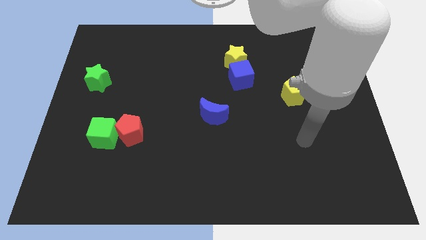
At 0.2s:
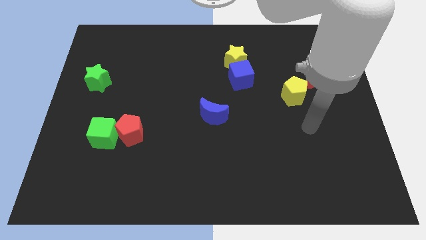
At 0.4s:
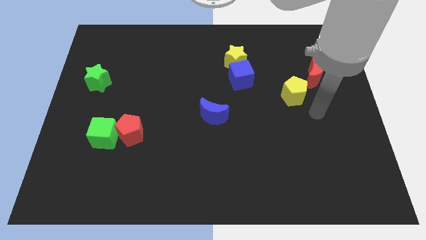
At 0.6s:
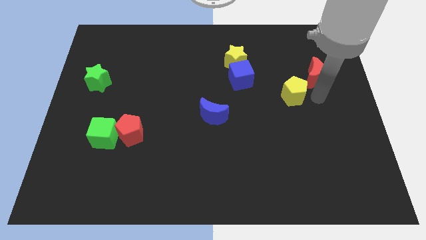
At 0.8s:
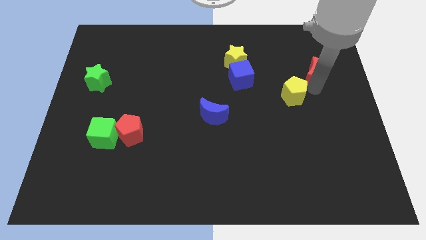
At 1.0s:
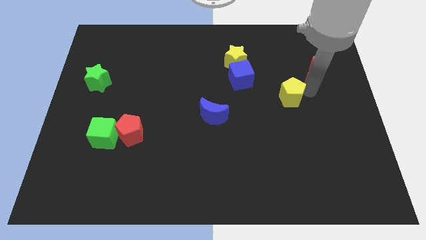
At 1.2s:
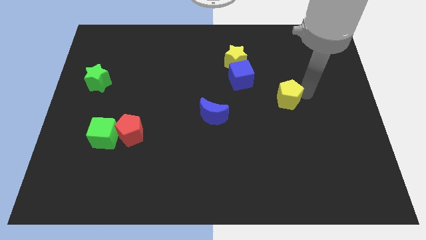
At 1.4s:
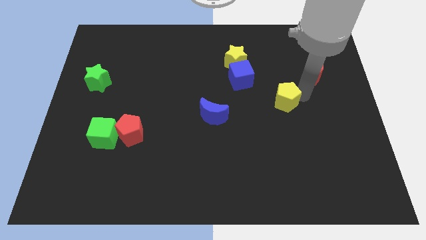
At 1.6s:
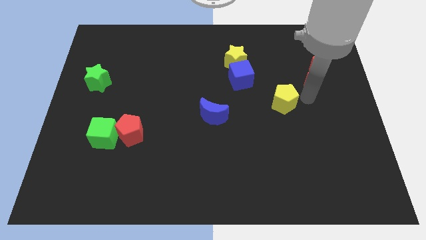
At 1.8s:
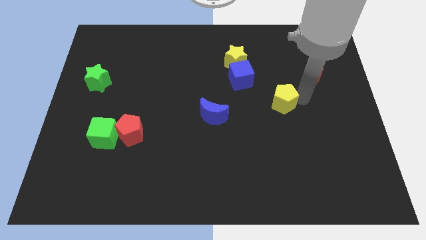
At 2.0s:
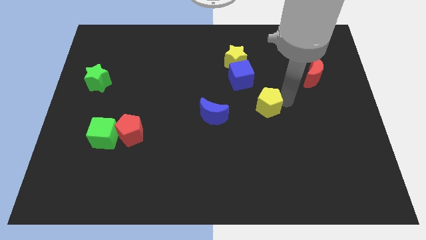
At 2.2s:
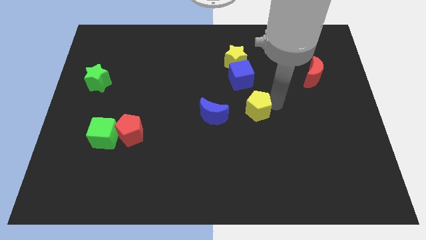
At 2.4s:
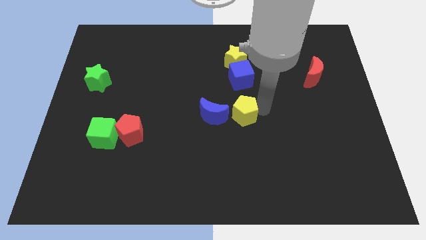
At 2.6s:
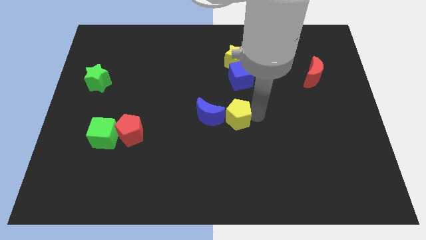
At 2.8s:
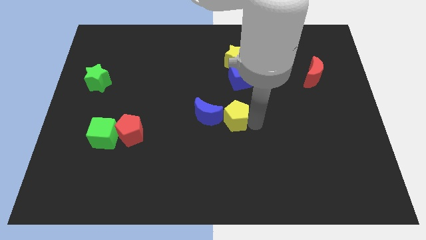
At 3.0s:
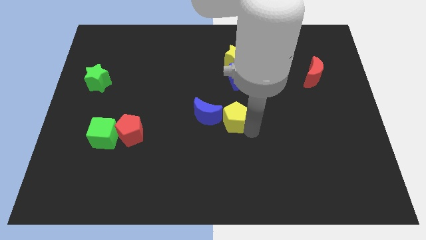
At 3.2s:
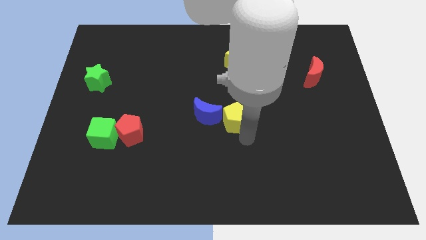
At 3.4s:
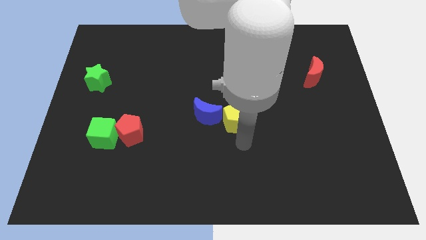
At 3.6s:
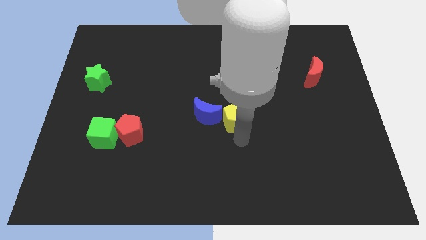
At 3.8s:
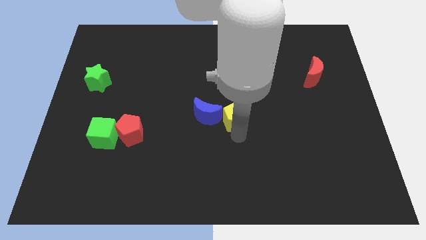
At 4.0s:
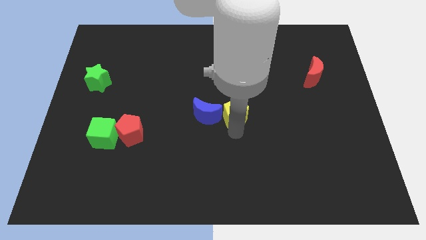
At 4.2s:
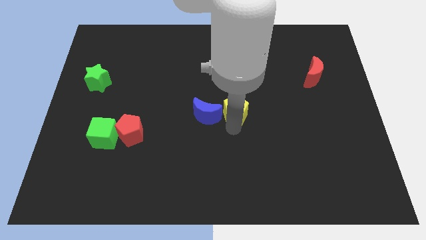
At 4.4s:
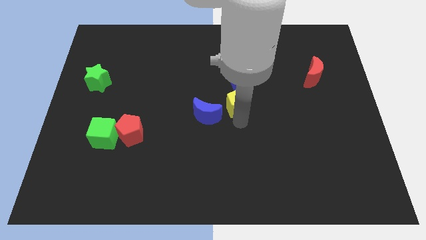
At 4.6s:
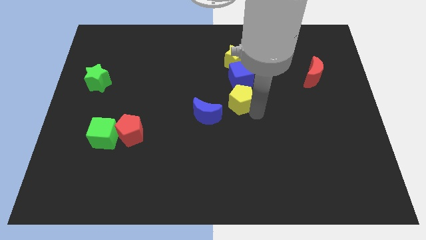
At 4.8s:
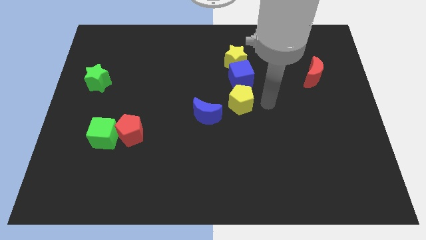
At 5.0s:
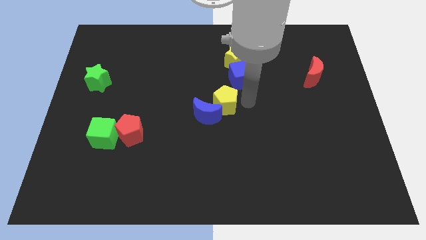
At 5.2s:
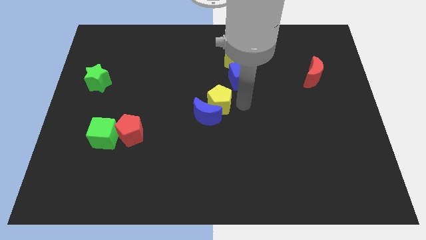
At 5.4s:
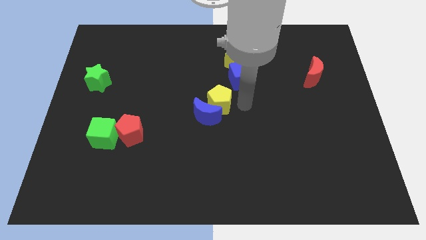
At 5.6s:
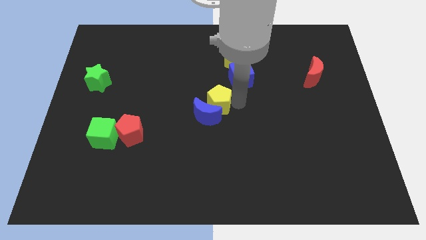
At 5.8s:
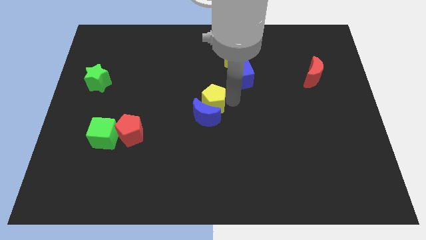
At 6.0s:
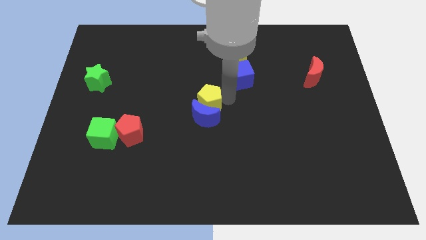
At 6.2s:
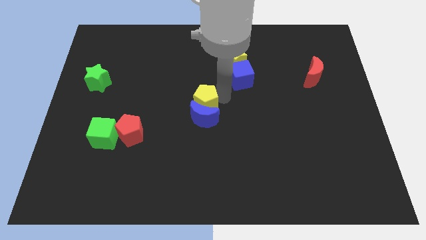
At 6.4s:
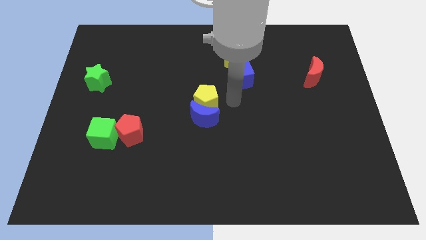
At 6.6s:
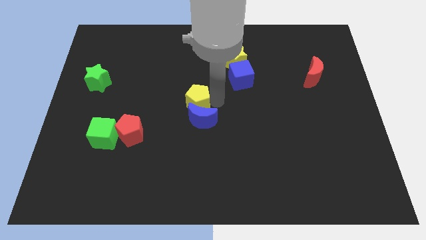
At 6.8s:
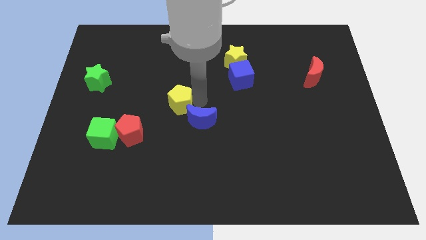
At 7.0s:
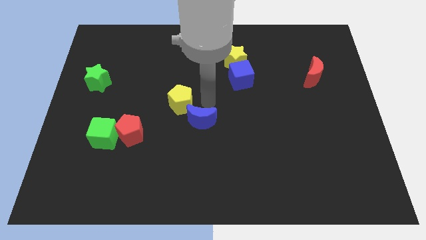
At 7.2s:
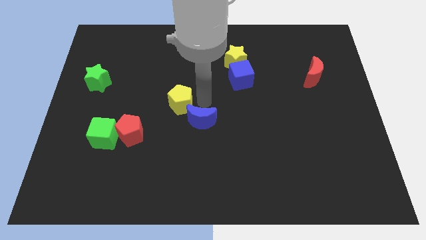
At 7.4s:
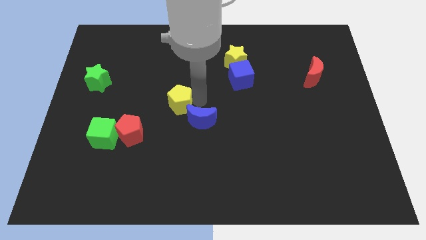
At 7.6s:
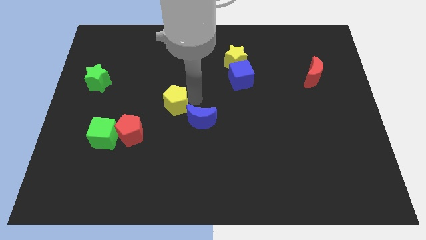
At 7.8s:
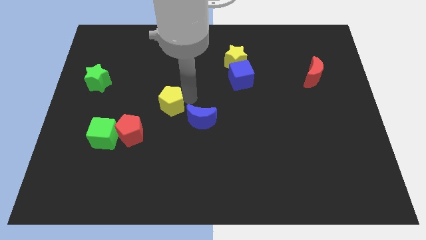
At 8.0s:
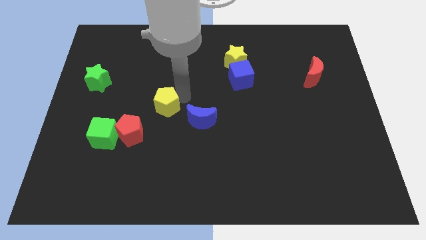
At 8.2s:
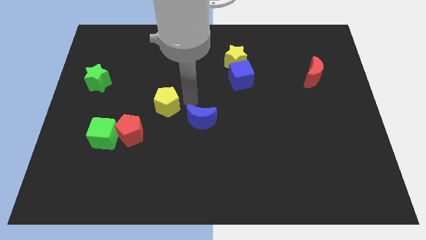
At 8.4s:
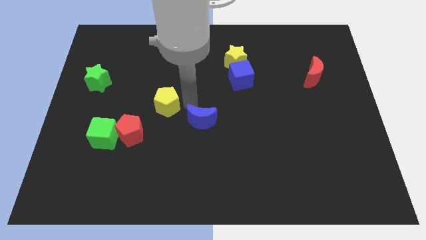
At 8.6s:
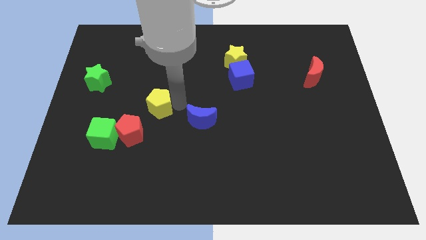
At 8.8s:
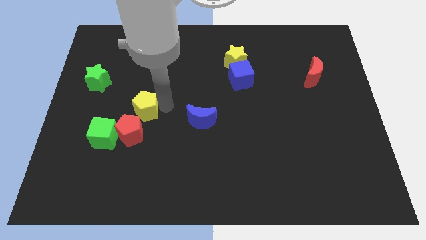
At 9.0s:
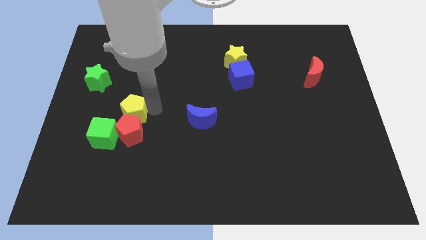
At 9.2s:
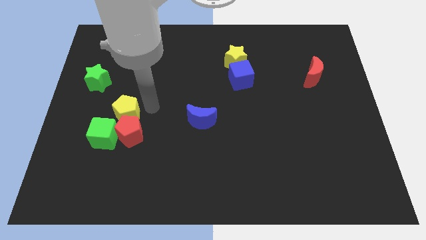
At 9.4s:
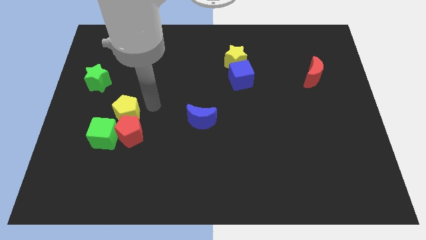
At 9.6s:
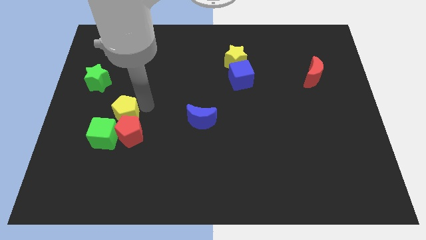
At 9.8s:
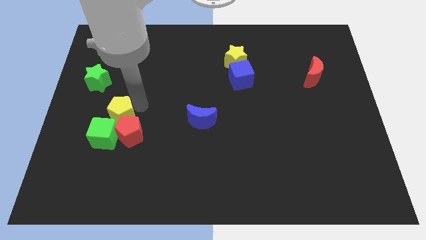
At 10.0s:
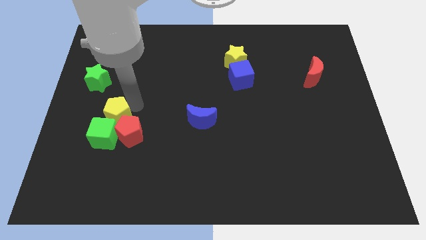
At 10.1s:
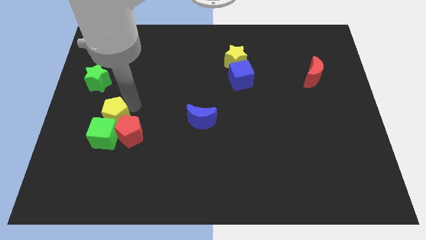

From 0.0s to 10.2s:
push the yellow pentagon towards the green cube

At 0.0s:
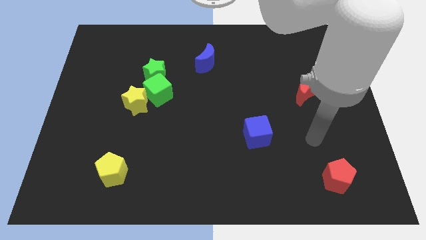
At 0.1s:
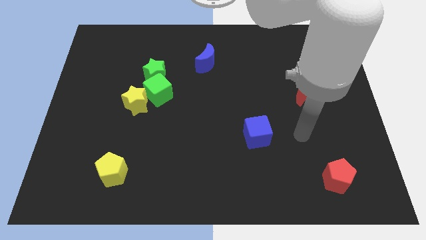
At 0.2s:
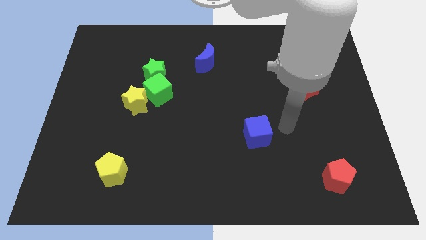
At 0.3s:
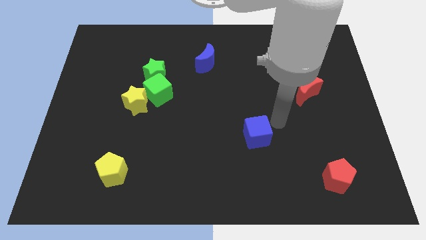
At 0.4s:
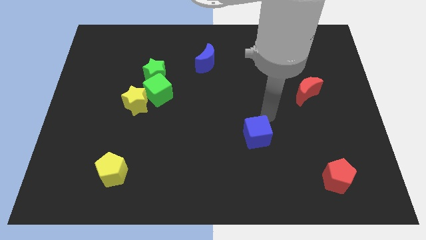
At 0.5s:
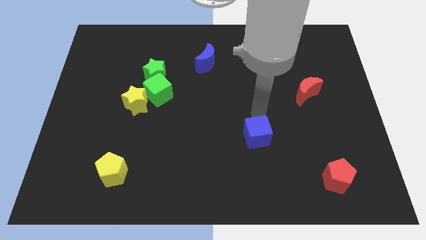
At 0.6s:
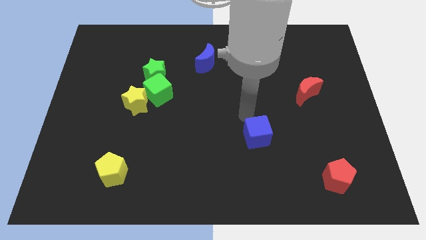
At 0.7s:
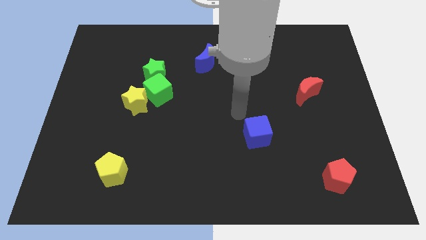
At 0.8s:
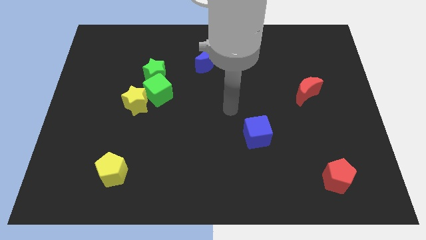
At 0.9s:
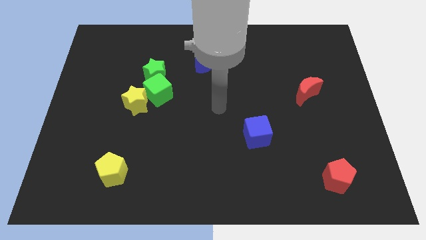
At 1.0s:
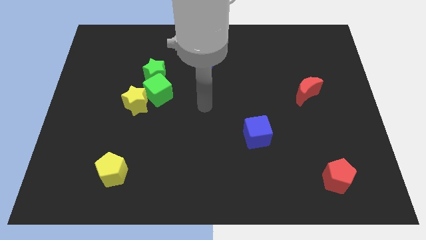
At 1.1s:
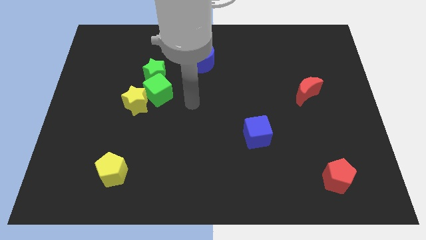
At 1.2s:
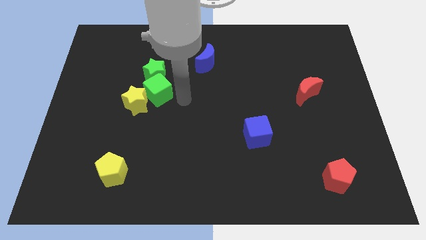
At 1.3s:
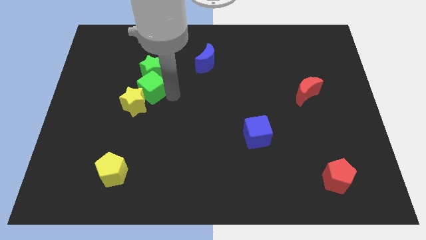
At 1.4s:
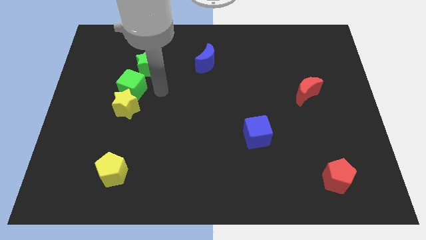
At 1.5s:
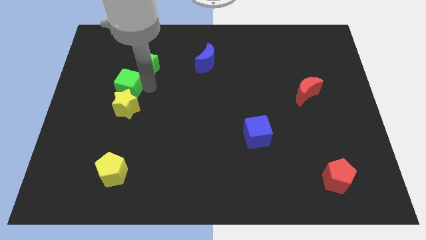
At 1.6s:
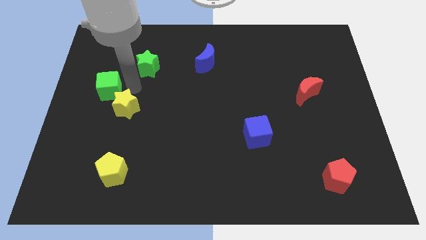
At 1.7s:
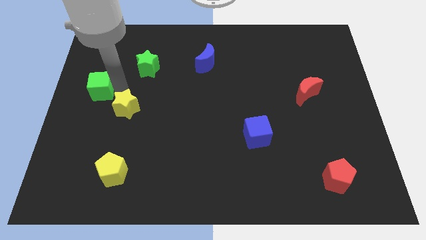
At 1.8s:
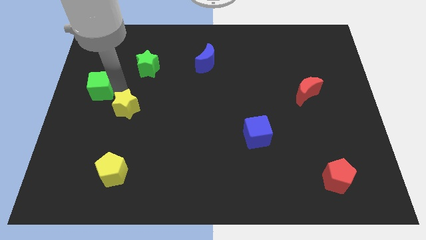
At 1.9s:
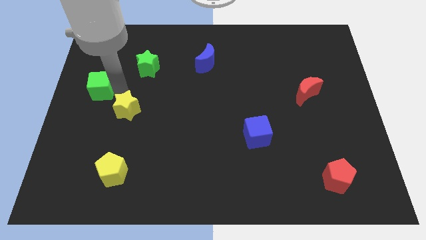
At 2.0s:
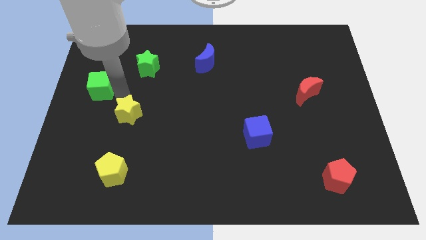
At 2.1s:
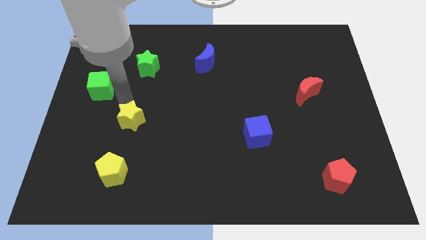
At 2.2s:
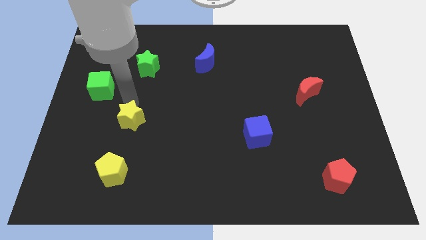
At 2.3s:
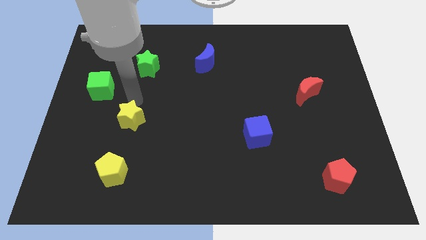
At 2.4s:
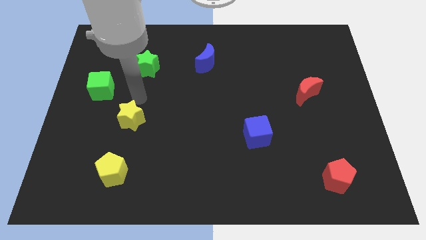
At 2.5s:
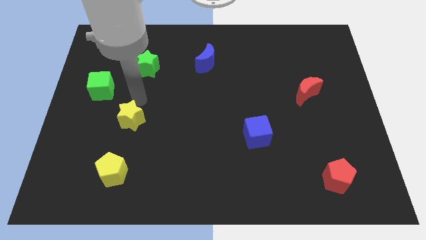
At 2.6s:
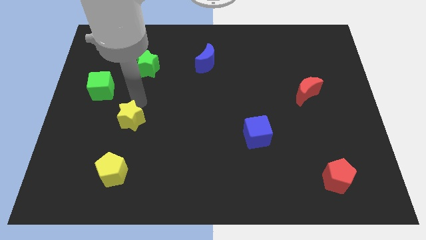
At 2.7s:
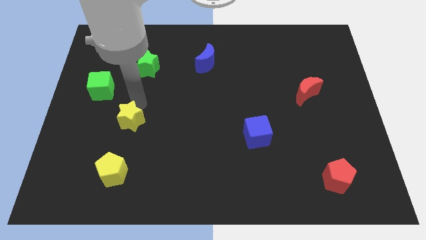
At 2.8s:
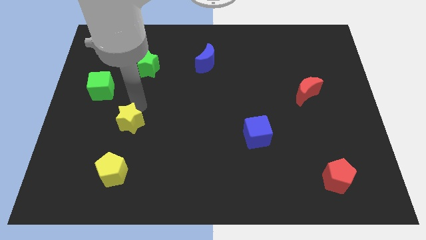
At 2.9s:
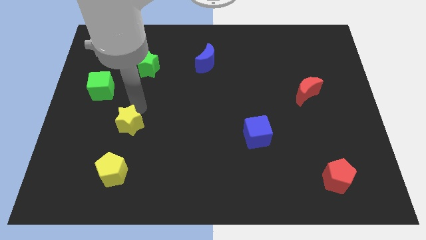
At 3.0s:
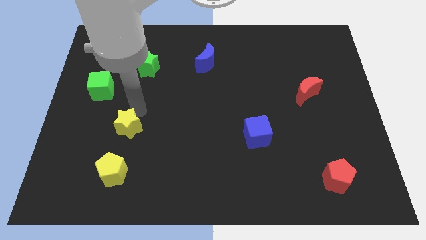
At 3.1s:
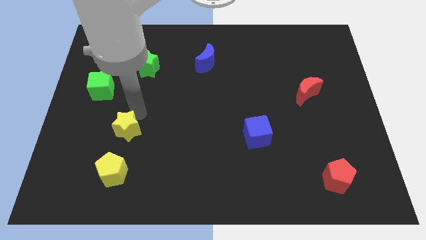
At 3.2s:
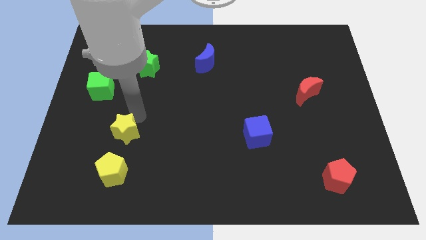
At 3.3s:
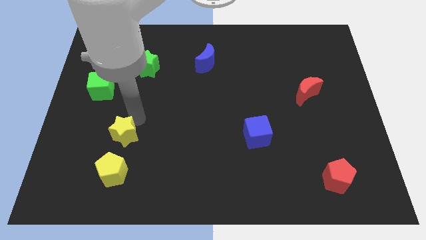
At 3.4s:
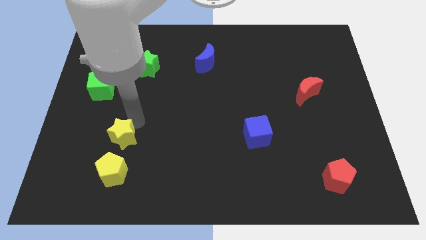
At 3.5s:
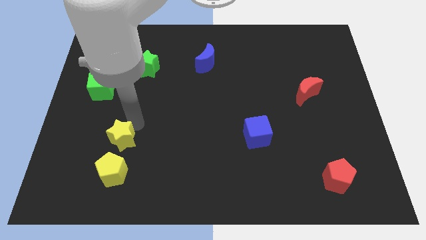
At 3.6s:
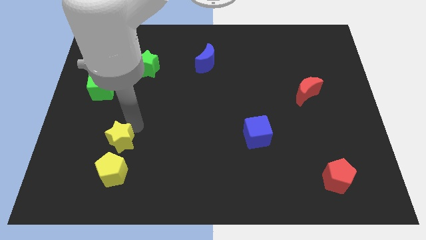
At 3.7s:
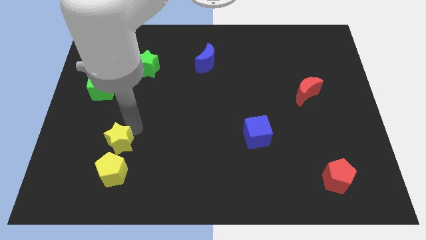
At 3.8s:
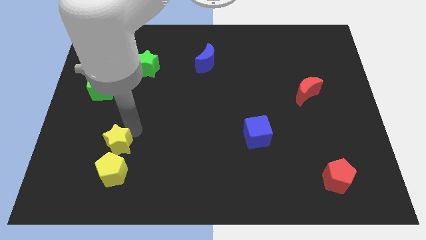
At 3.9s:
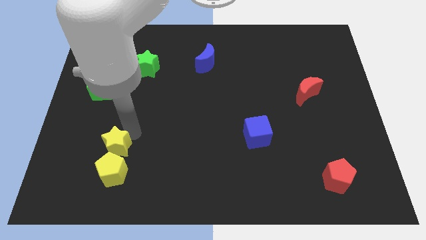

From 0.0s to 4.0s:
push the yellow star to the yellow pentagon
